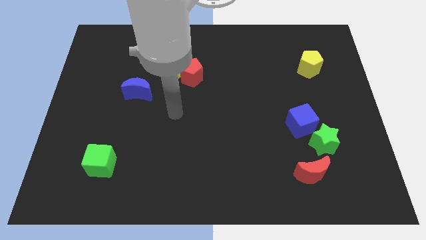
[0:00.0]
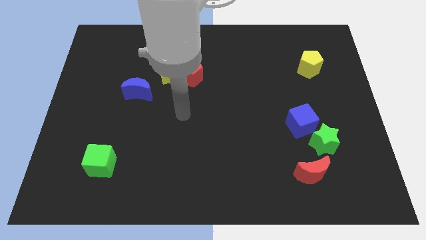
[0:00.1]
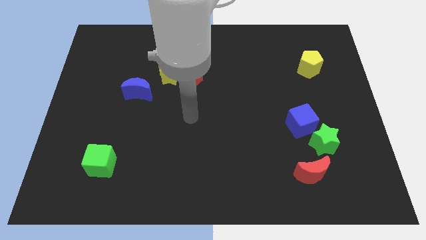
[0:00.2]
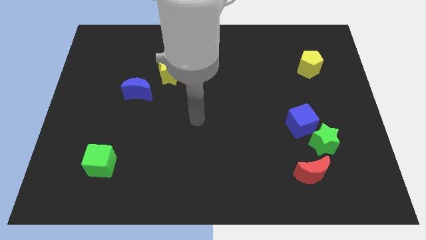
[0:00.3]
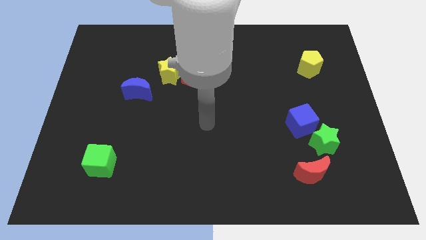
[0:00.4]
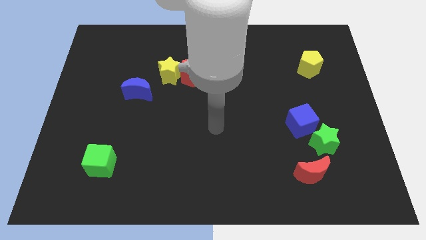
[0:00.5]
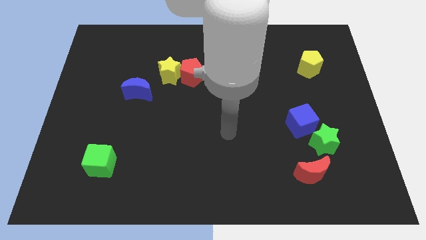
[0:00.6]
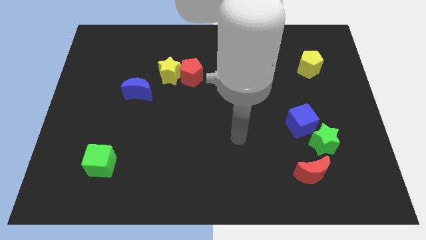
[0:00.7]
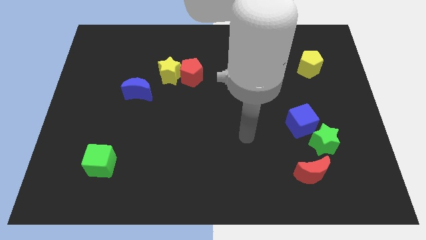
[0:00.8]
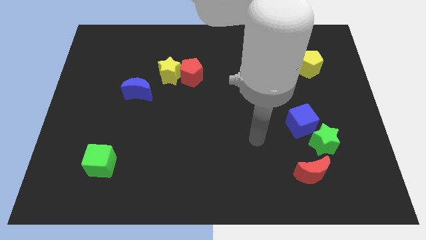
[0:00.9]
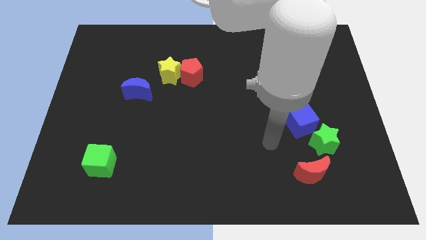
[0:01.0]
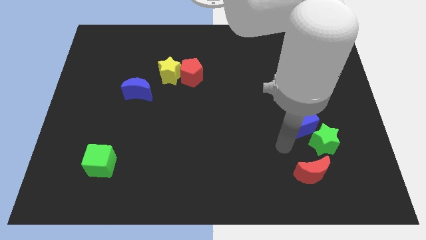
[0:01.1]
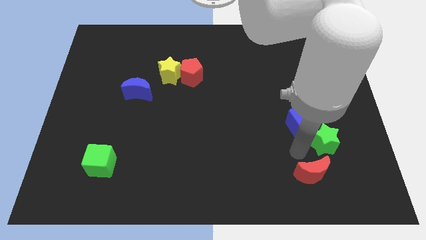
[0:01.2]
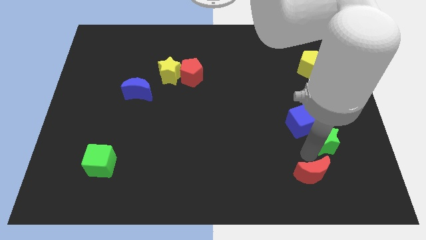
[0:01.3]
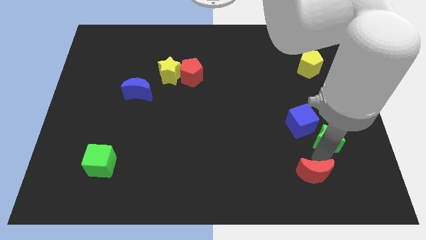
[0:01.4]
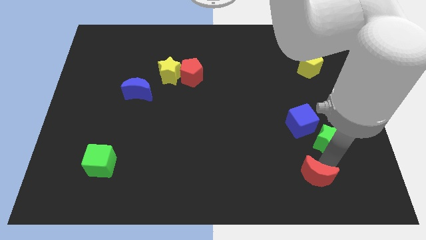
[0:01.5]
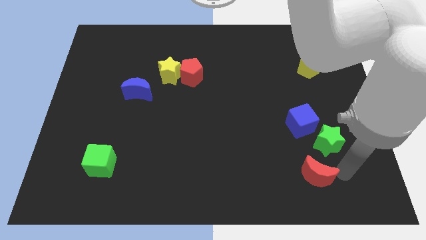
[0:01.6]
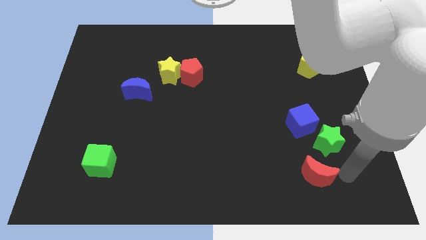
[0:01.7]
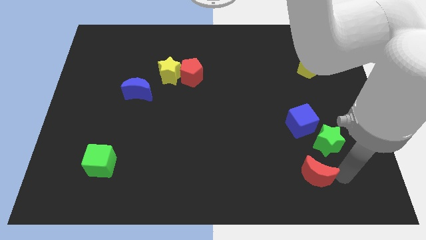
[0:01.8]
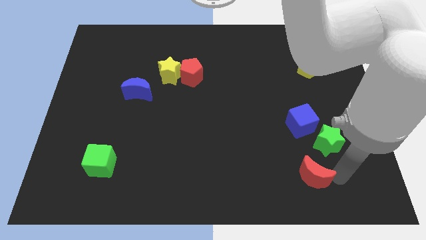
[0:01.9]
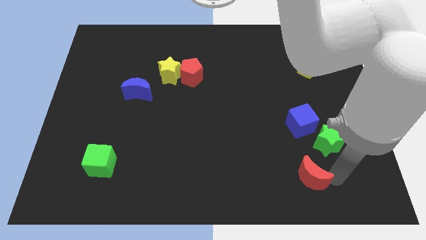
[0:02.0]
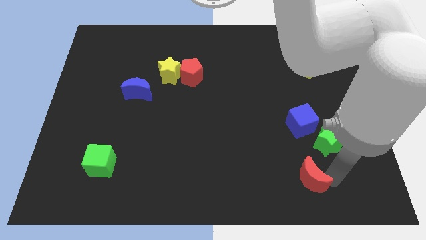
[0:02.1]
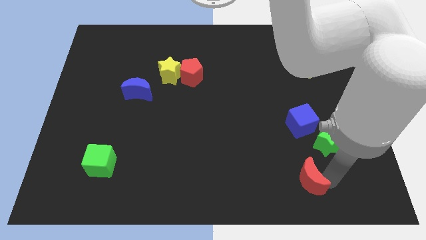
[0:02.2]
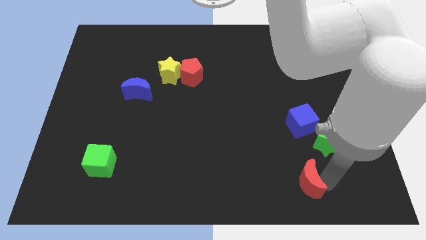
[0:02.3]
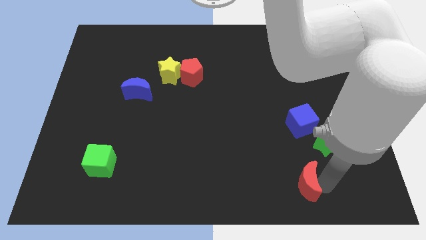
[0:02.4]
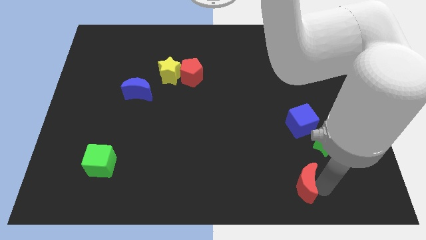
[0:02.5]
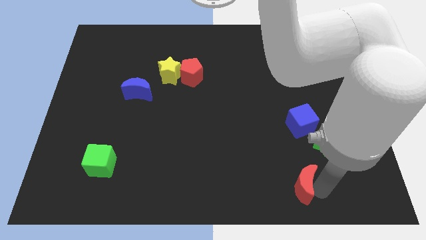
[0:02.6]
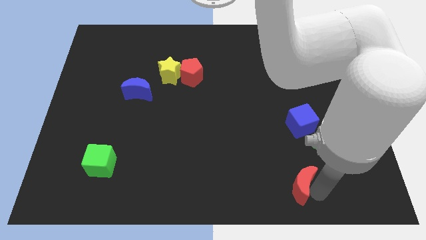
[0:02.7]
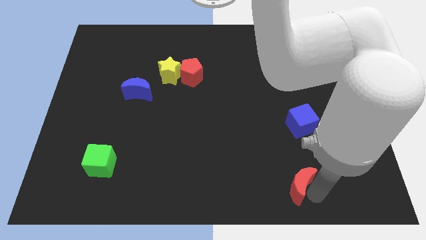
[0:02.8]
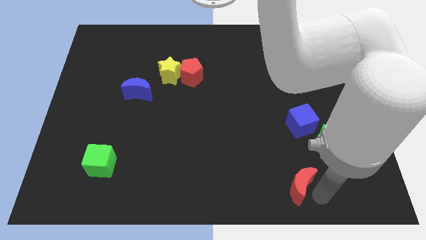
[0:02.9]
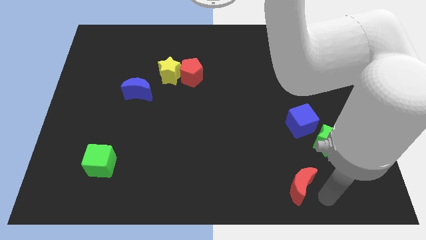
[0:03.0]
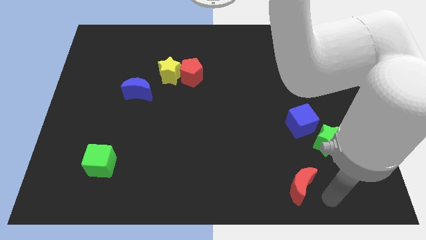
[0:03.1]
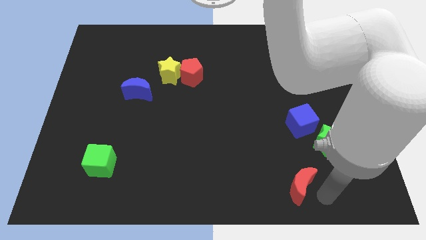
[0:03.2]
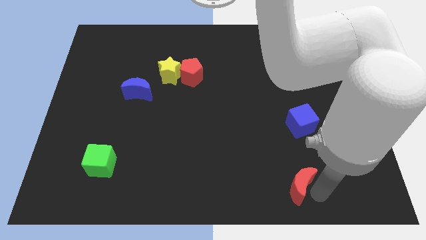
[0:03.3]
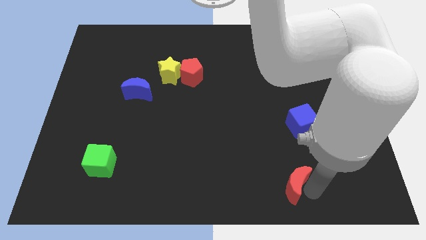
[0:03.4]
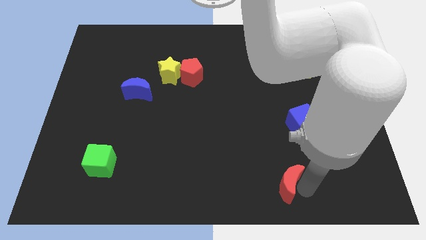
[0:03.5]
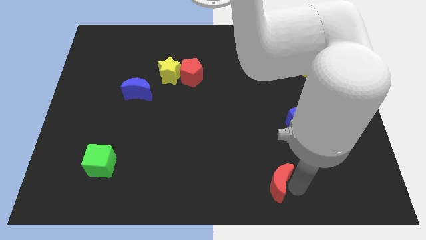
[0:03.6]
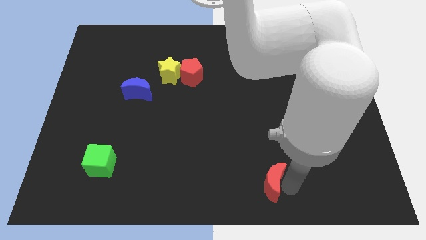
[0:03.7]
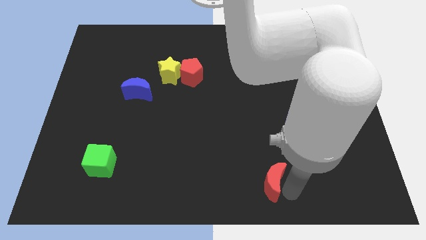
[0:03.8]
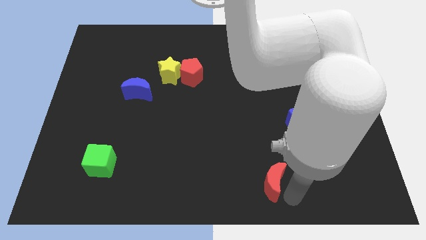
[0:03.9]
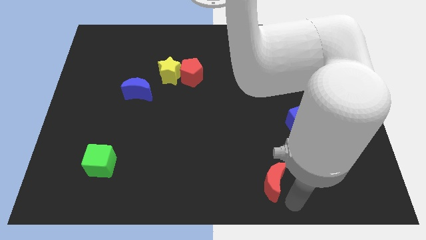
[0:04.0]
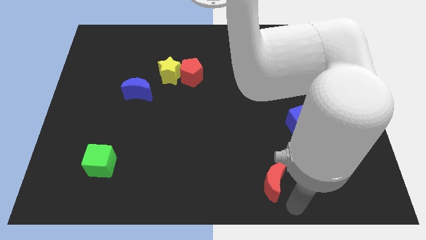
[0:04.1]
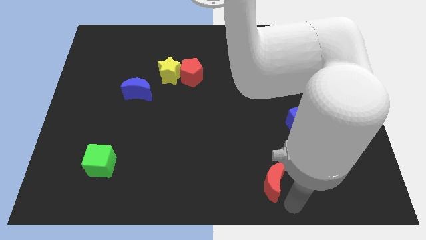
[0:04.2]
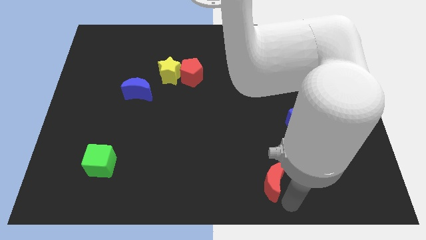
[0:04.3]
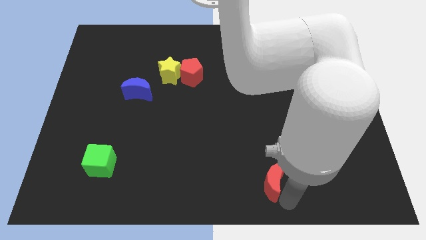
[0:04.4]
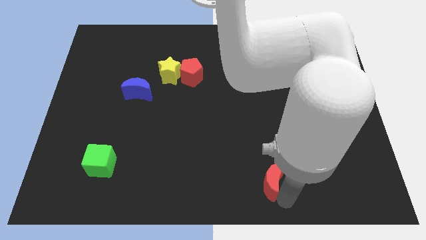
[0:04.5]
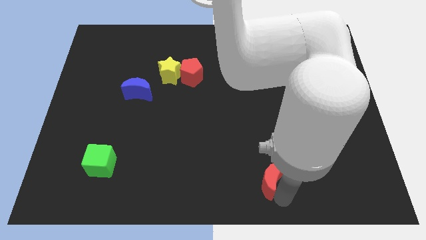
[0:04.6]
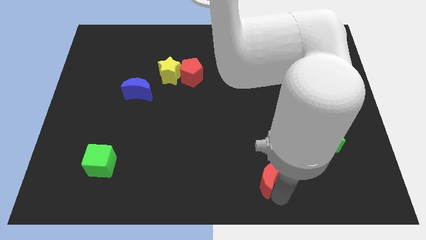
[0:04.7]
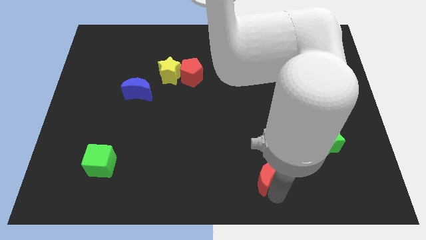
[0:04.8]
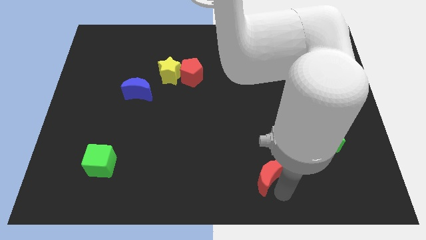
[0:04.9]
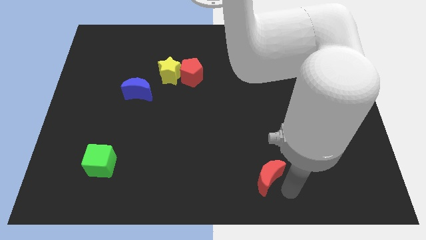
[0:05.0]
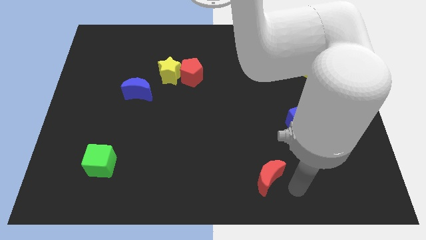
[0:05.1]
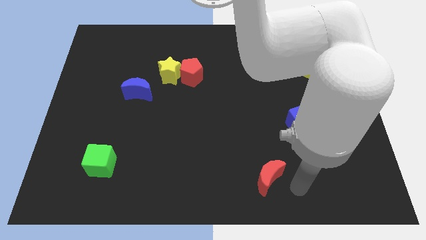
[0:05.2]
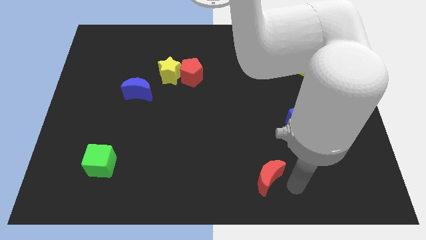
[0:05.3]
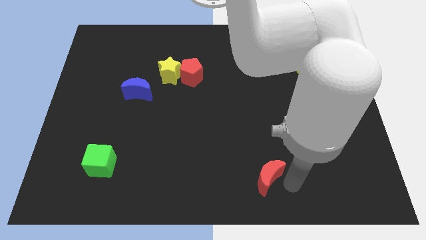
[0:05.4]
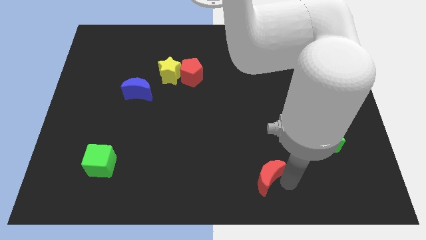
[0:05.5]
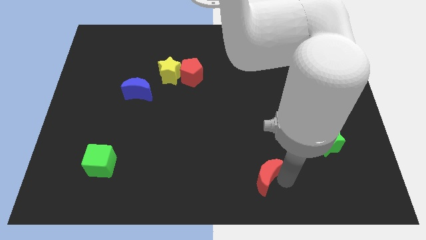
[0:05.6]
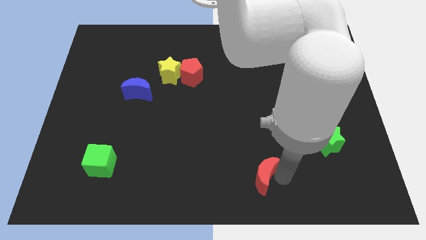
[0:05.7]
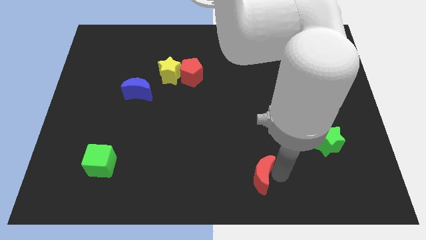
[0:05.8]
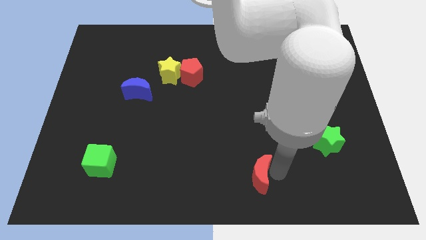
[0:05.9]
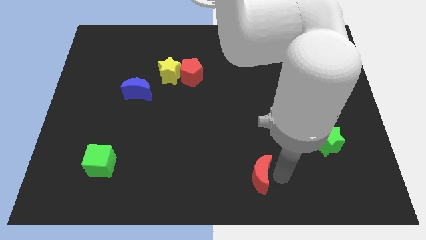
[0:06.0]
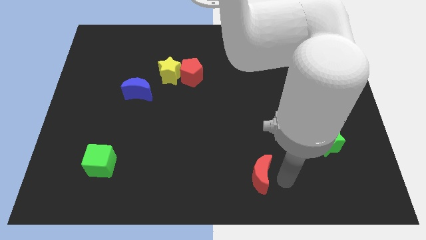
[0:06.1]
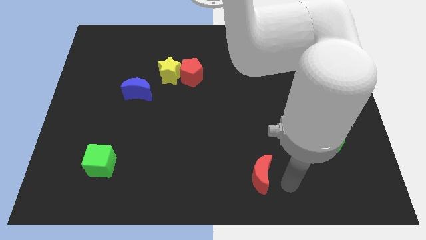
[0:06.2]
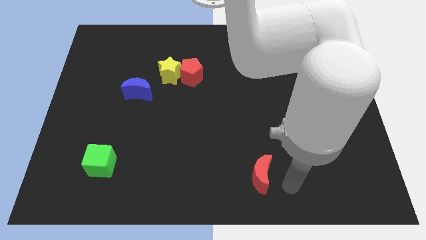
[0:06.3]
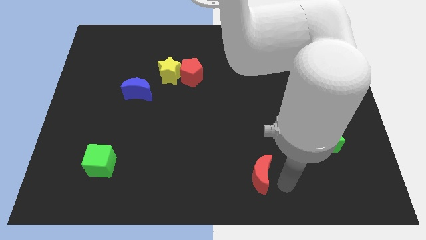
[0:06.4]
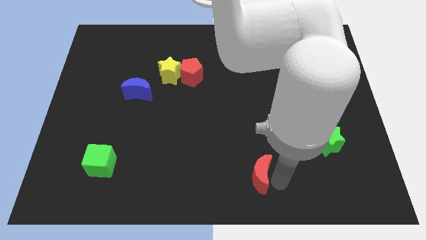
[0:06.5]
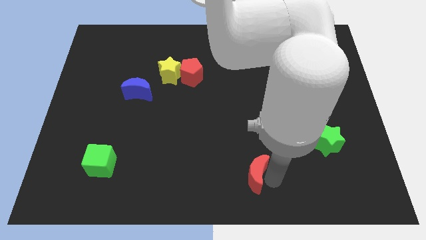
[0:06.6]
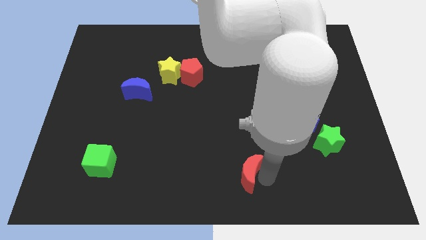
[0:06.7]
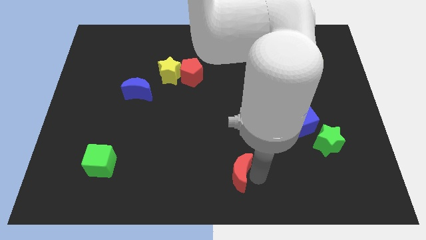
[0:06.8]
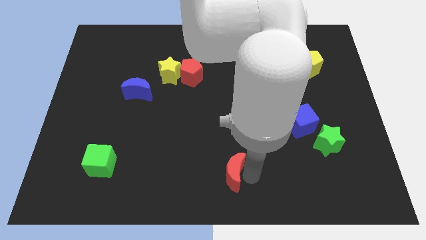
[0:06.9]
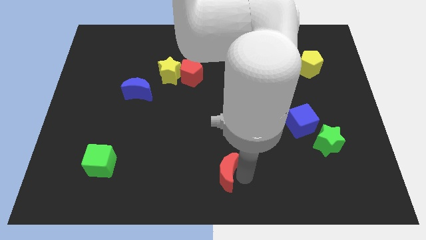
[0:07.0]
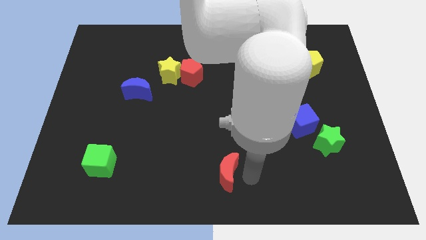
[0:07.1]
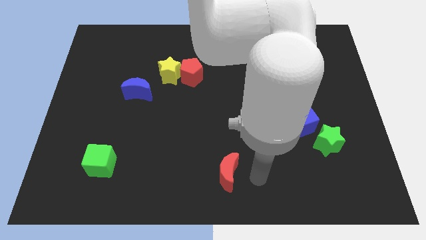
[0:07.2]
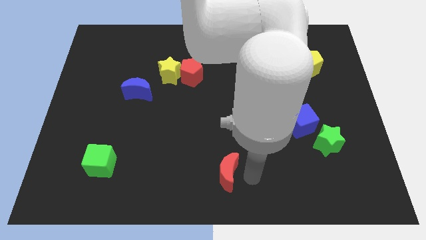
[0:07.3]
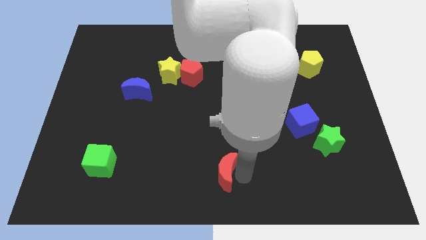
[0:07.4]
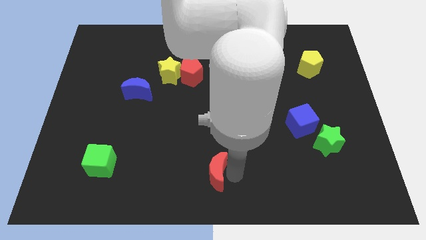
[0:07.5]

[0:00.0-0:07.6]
move the red moon left

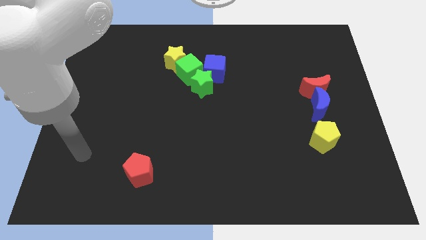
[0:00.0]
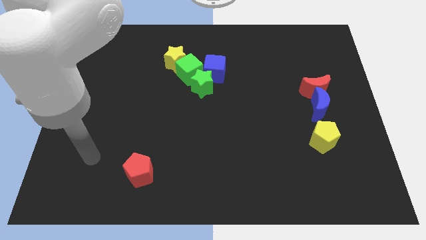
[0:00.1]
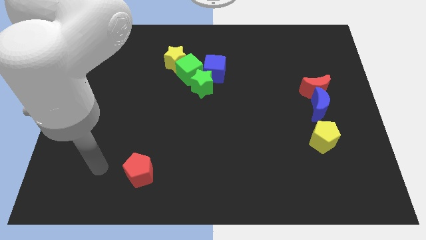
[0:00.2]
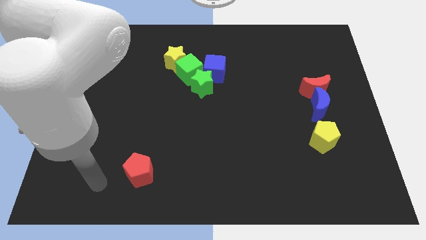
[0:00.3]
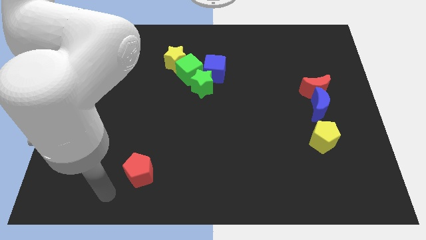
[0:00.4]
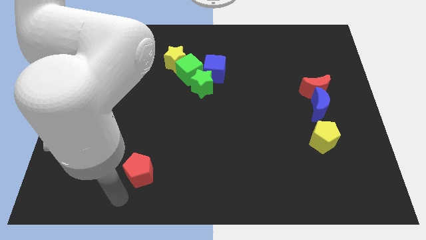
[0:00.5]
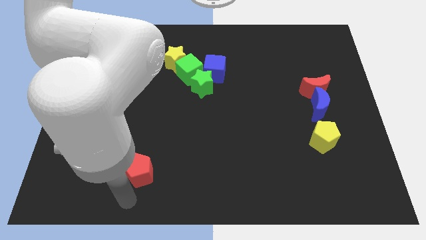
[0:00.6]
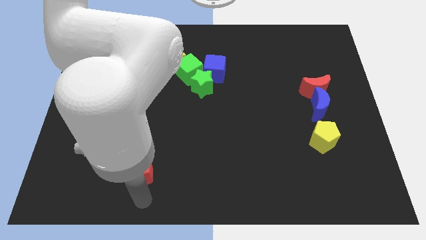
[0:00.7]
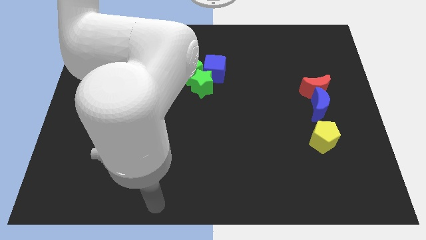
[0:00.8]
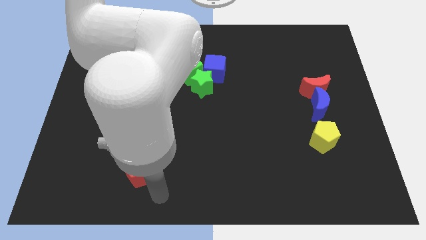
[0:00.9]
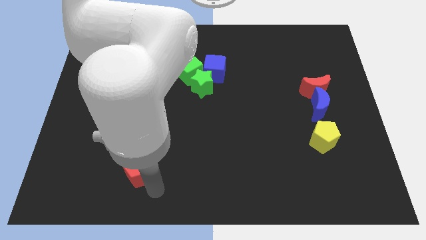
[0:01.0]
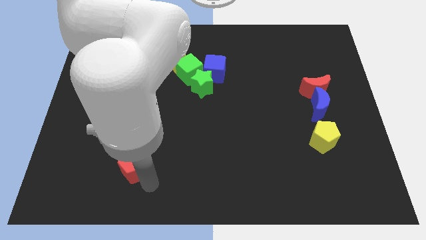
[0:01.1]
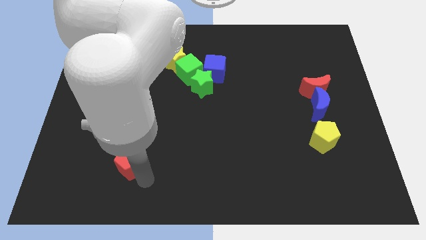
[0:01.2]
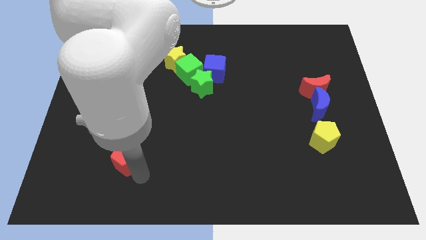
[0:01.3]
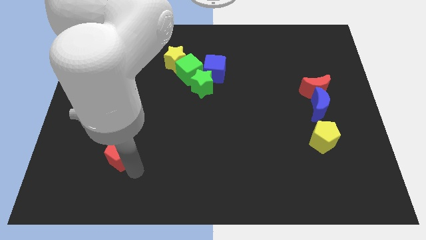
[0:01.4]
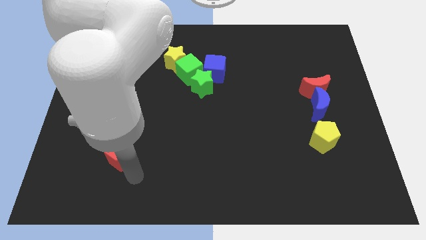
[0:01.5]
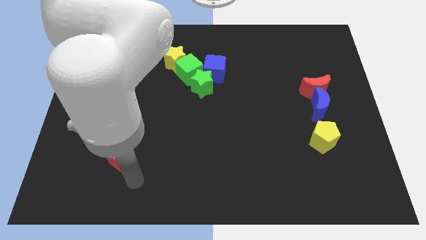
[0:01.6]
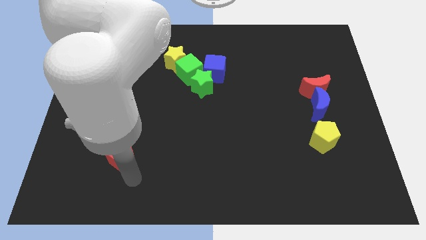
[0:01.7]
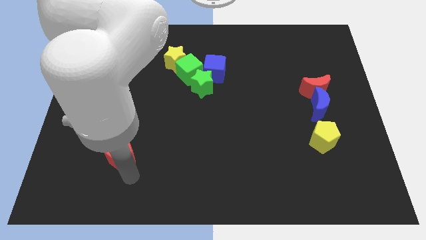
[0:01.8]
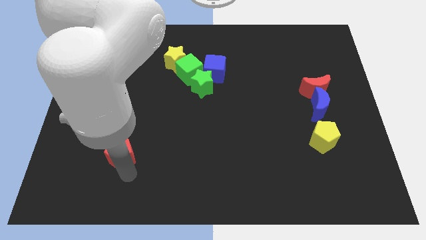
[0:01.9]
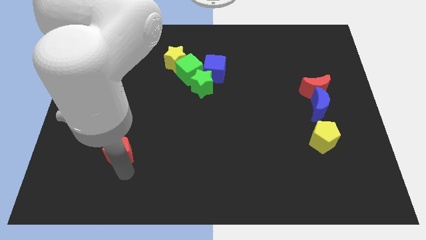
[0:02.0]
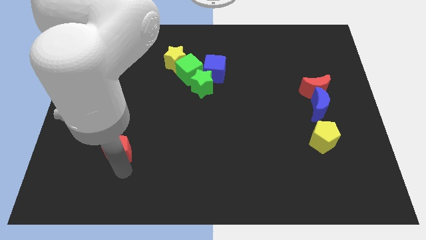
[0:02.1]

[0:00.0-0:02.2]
move the red pentagon up and left a bit
